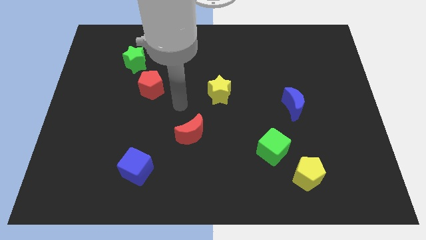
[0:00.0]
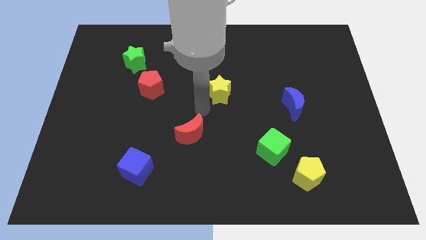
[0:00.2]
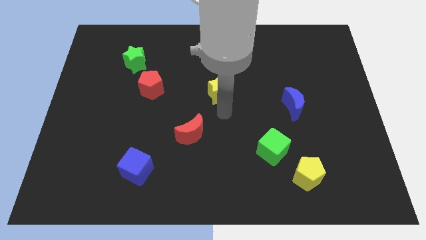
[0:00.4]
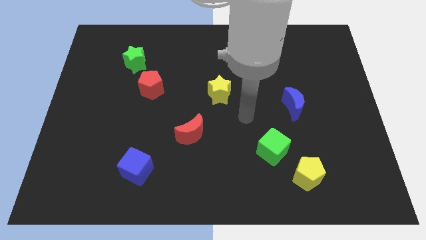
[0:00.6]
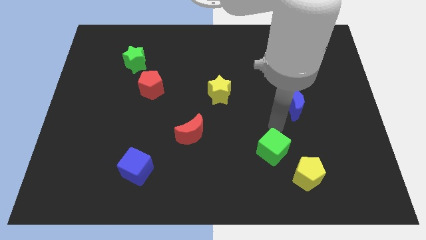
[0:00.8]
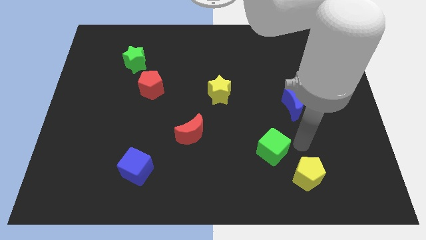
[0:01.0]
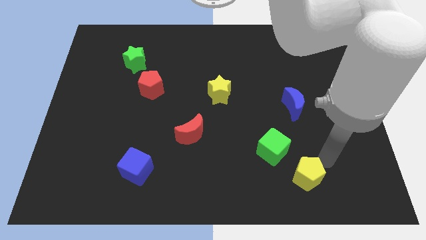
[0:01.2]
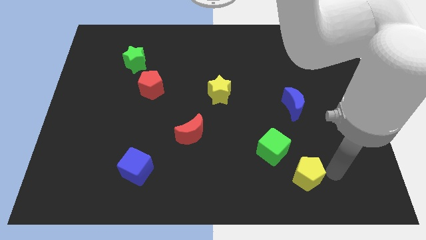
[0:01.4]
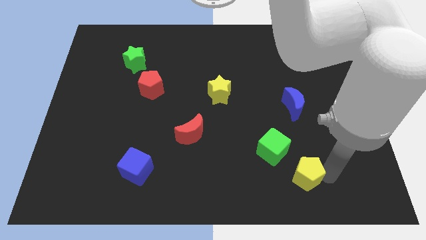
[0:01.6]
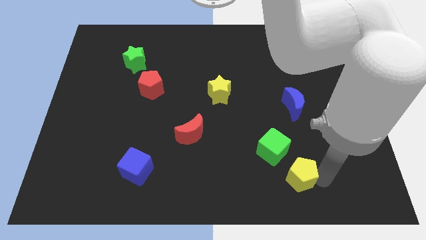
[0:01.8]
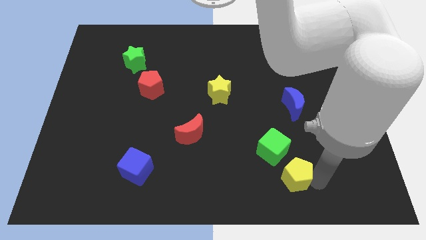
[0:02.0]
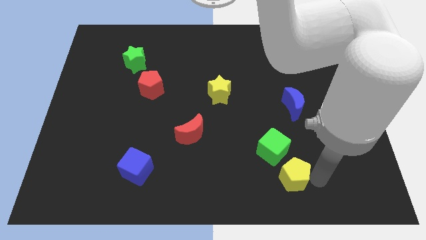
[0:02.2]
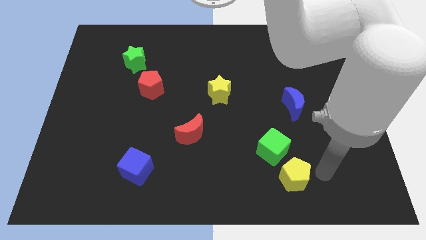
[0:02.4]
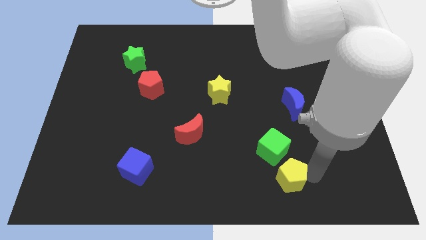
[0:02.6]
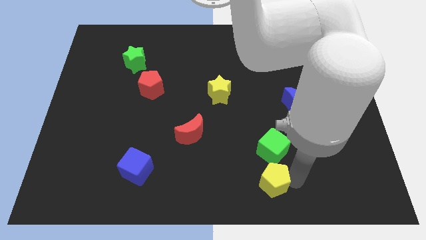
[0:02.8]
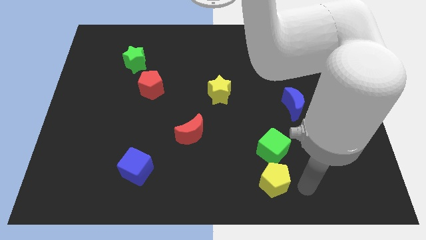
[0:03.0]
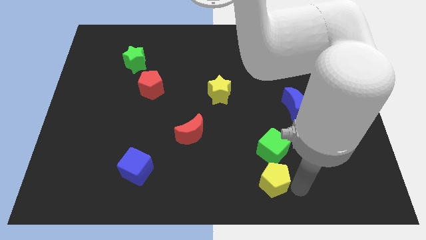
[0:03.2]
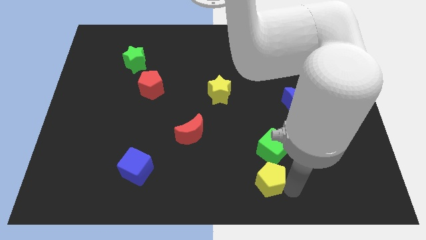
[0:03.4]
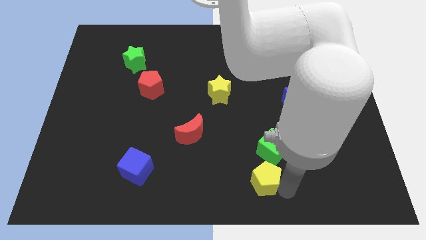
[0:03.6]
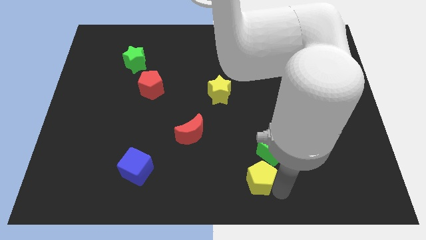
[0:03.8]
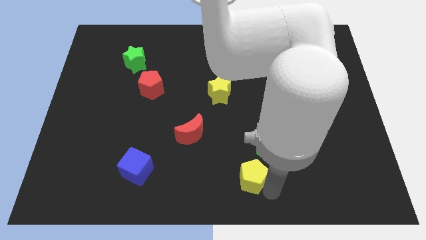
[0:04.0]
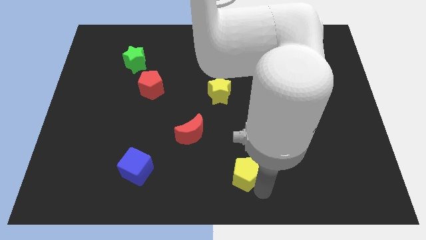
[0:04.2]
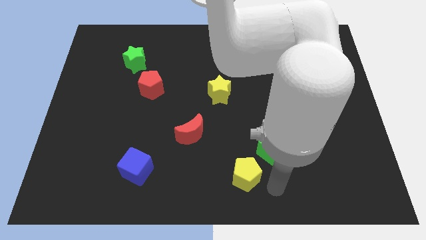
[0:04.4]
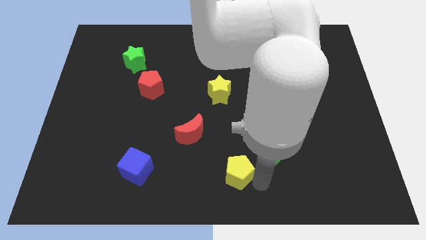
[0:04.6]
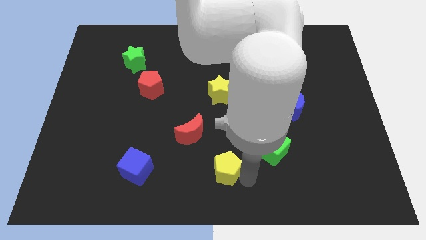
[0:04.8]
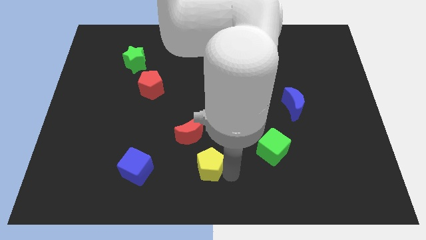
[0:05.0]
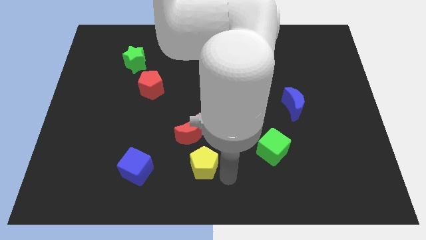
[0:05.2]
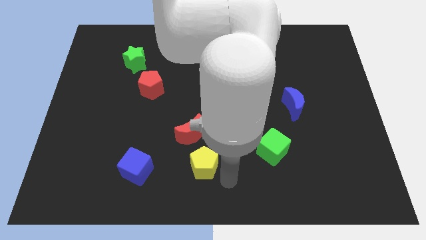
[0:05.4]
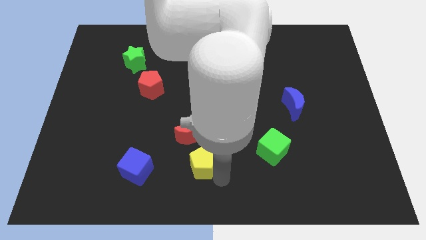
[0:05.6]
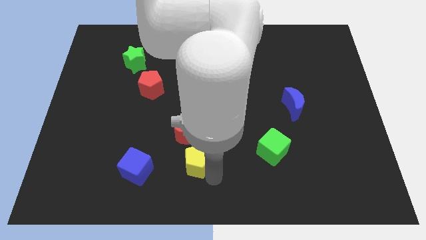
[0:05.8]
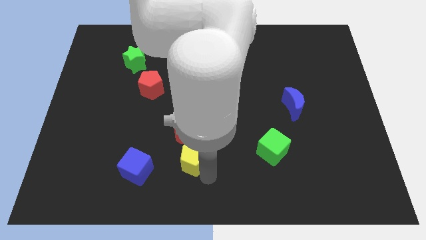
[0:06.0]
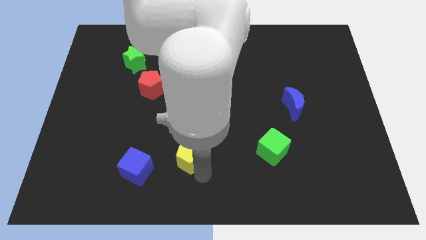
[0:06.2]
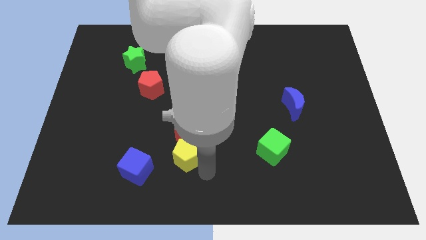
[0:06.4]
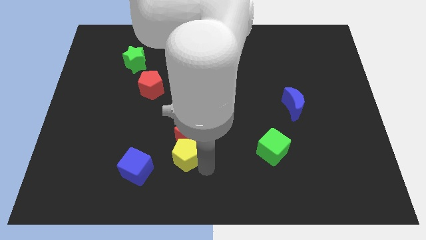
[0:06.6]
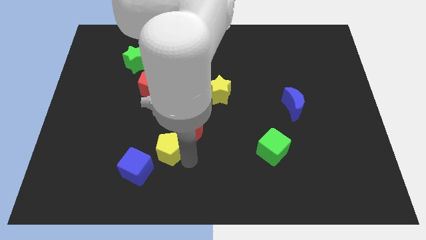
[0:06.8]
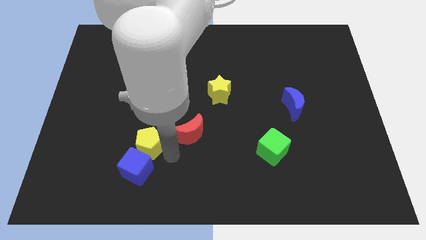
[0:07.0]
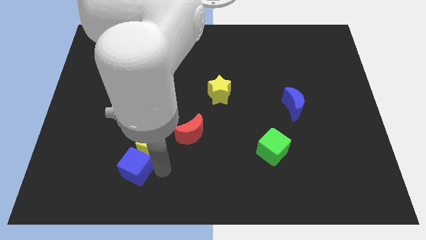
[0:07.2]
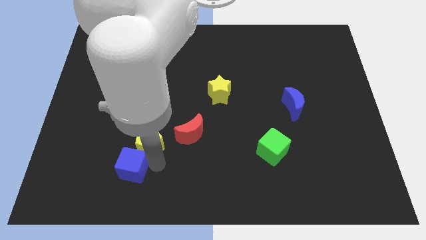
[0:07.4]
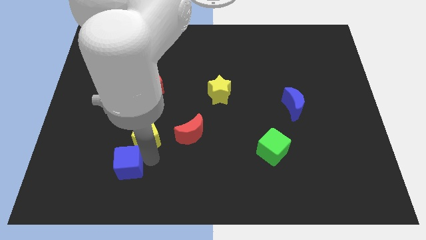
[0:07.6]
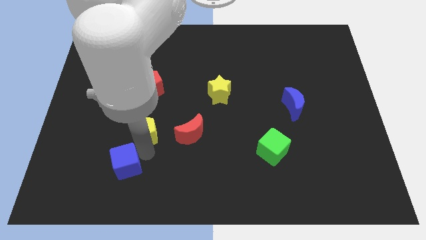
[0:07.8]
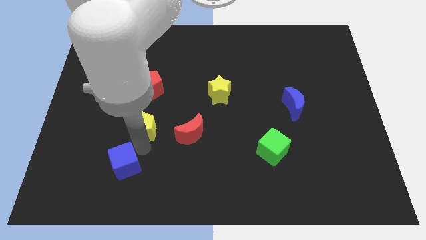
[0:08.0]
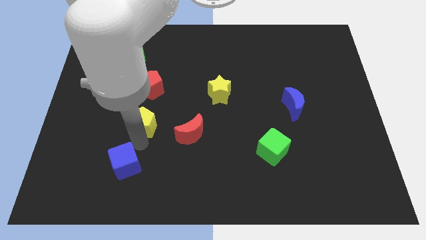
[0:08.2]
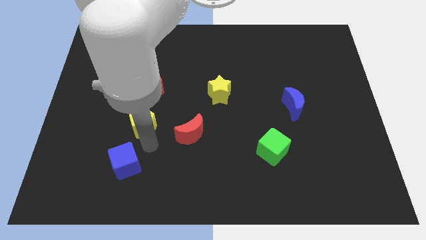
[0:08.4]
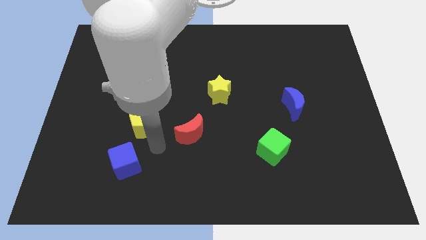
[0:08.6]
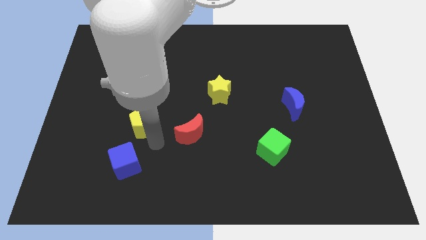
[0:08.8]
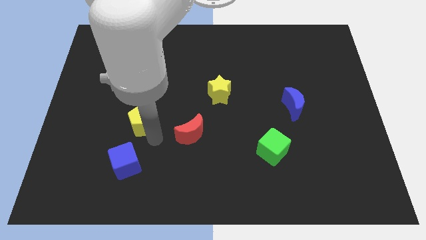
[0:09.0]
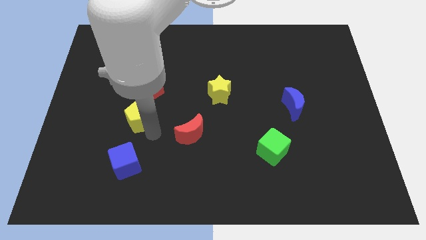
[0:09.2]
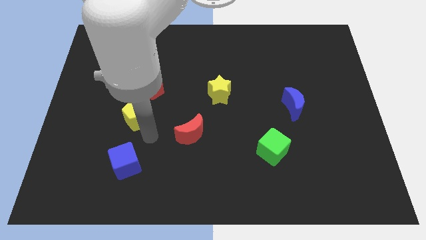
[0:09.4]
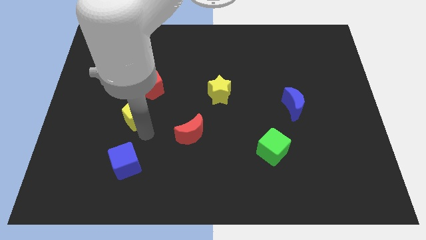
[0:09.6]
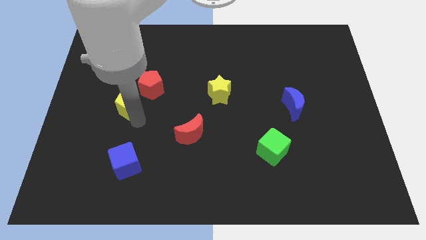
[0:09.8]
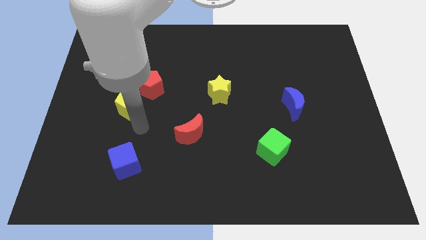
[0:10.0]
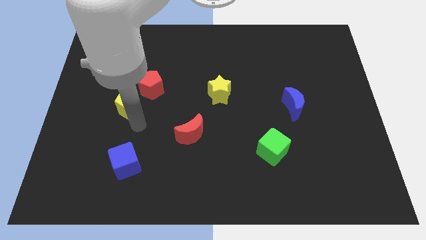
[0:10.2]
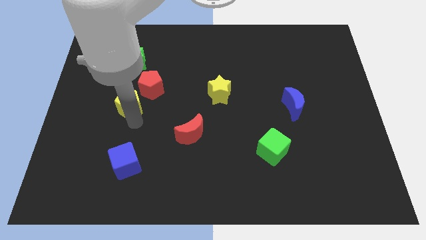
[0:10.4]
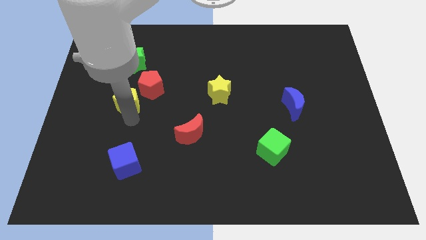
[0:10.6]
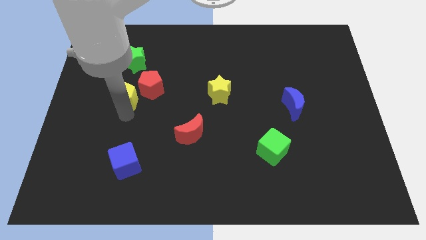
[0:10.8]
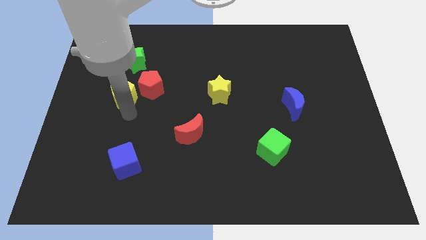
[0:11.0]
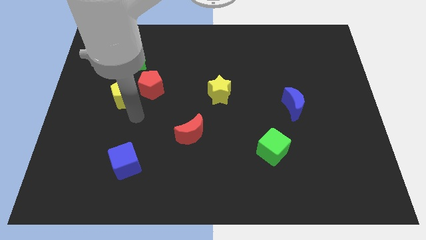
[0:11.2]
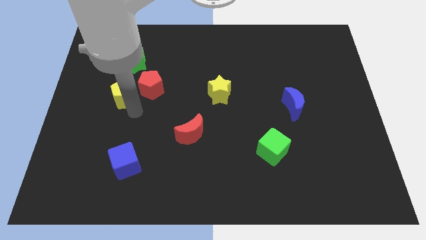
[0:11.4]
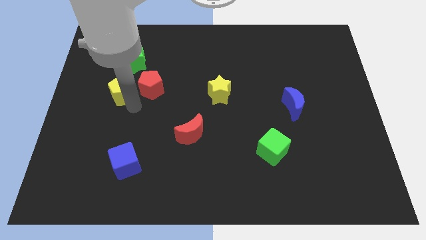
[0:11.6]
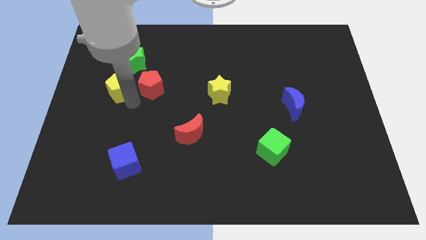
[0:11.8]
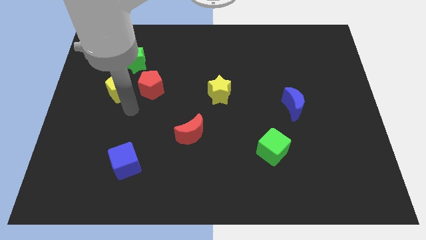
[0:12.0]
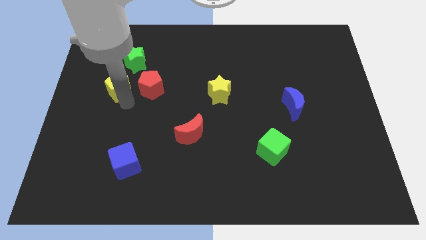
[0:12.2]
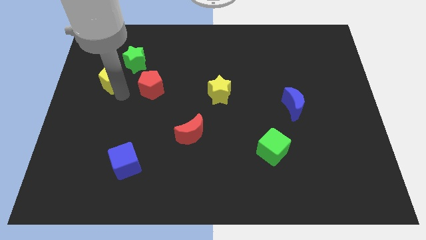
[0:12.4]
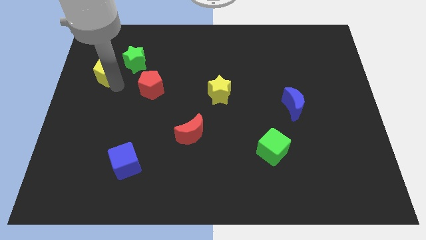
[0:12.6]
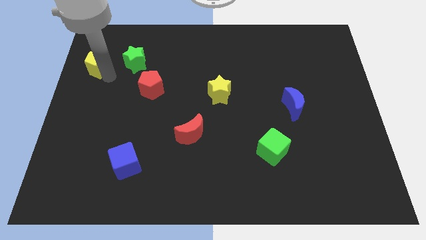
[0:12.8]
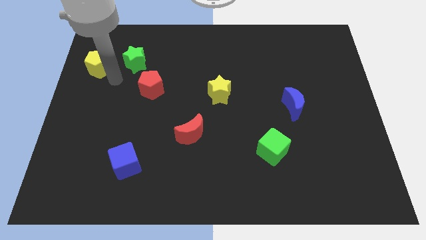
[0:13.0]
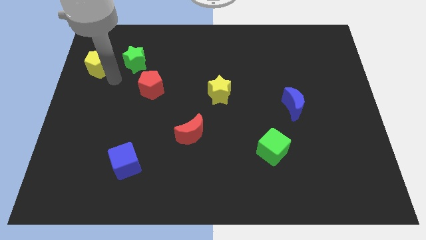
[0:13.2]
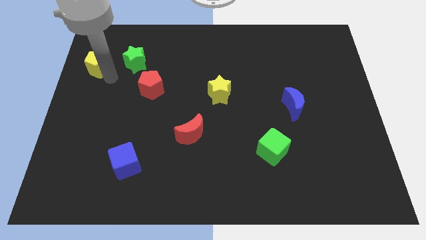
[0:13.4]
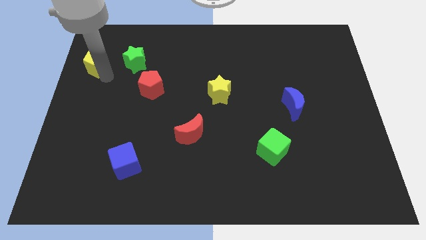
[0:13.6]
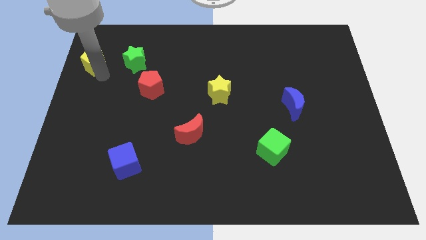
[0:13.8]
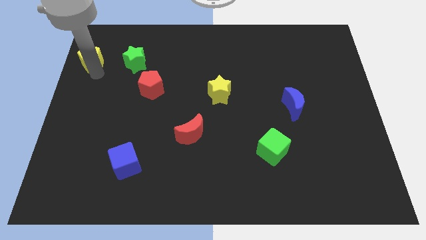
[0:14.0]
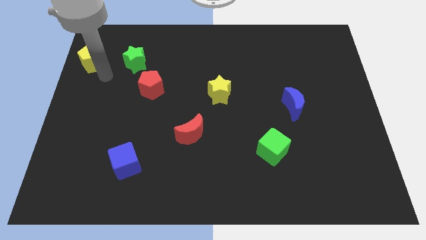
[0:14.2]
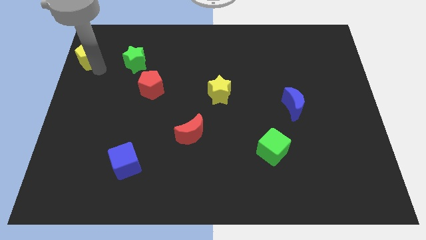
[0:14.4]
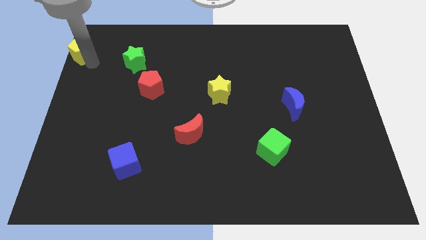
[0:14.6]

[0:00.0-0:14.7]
slide the yellow pentagon to the top left of the board
